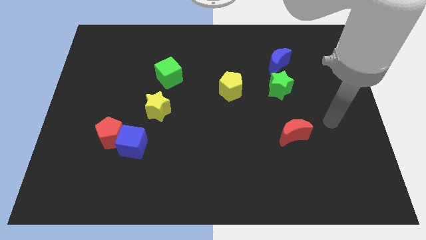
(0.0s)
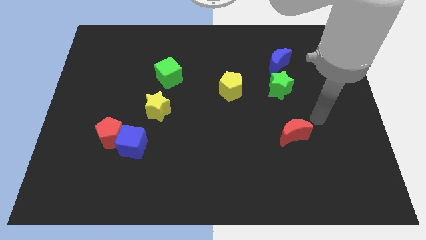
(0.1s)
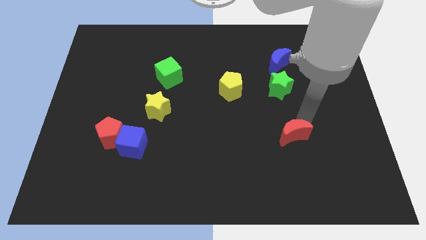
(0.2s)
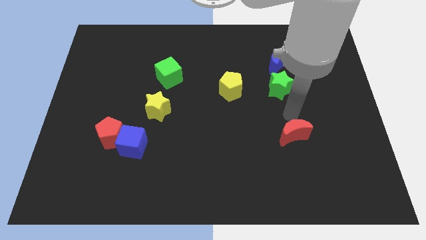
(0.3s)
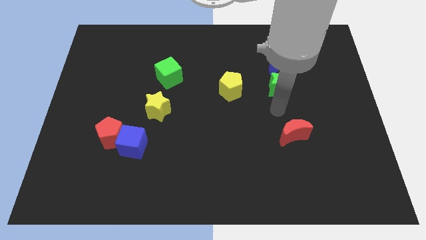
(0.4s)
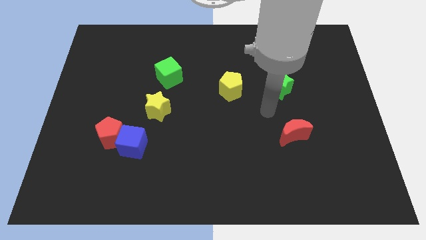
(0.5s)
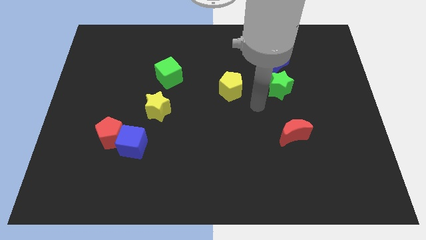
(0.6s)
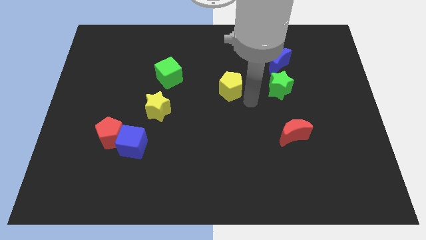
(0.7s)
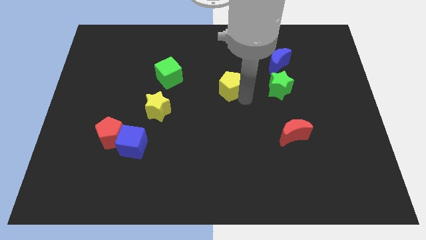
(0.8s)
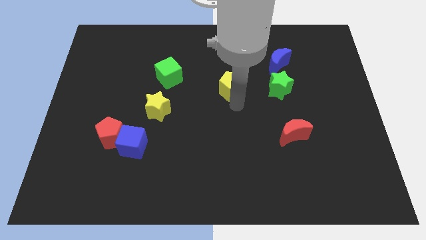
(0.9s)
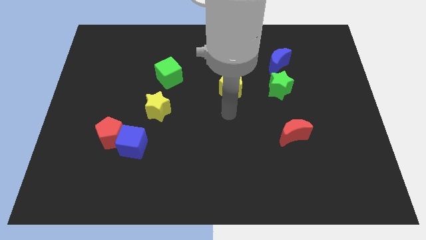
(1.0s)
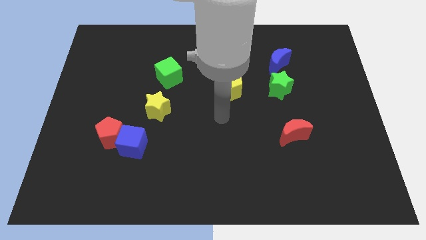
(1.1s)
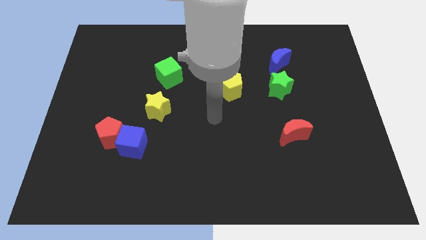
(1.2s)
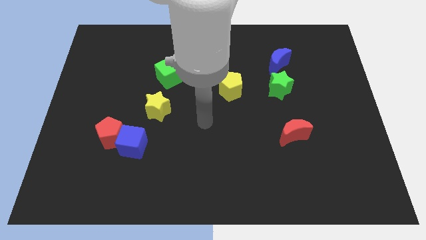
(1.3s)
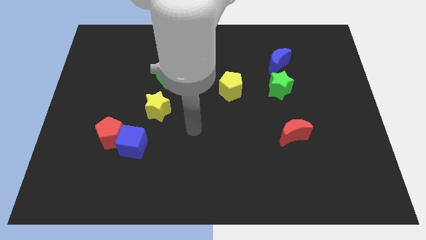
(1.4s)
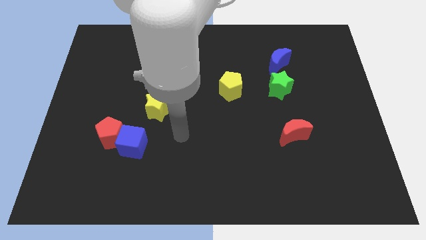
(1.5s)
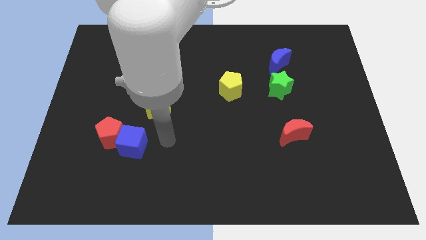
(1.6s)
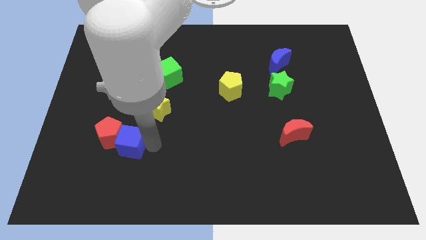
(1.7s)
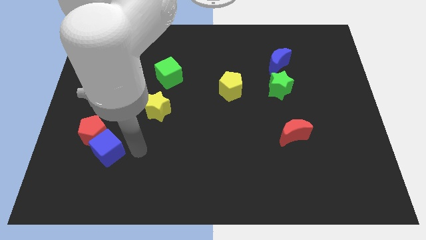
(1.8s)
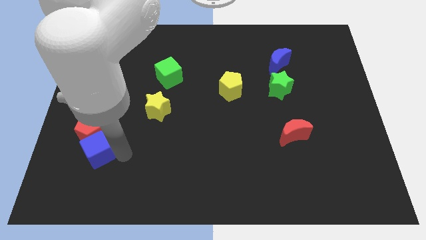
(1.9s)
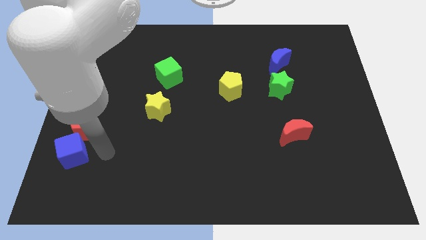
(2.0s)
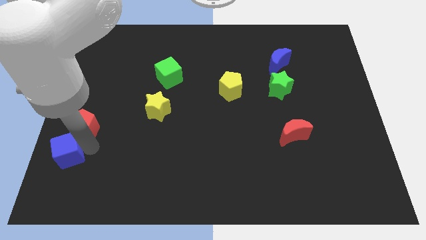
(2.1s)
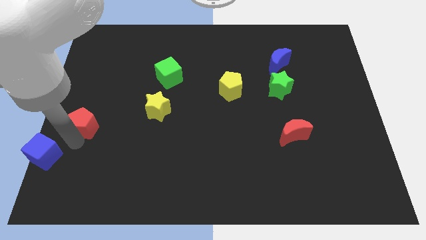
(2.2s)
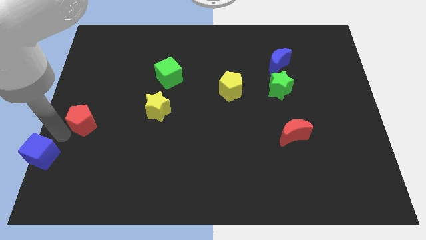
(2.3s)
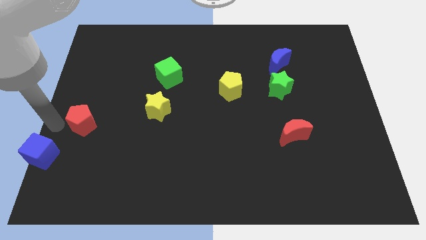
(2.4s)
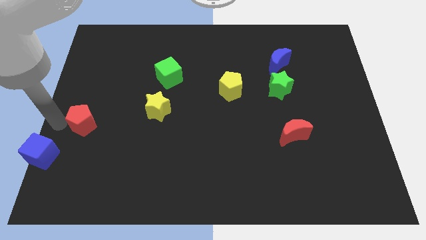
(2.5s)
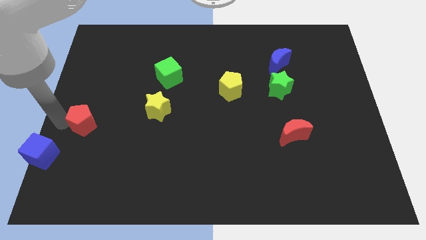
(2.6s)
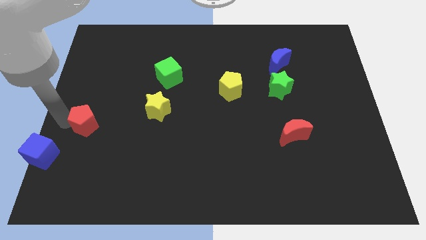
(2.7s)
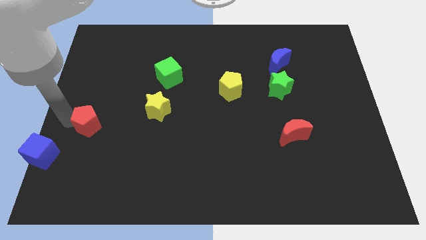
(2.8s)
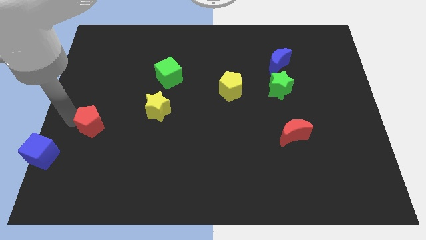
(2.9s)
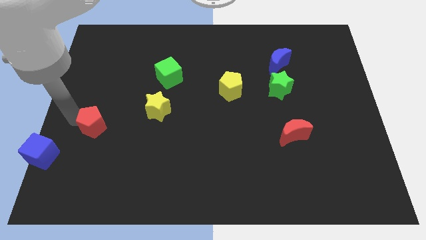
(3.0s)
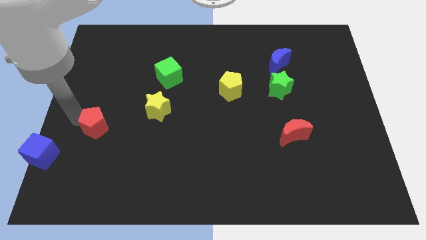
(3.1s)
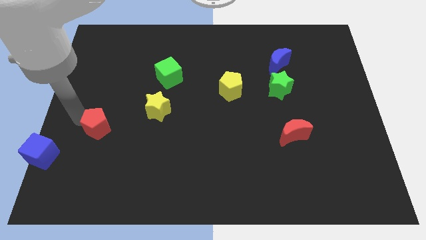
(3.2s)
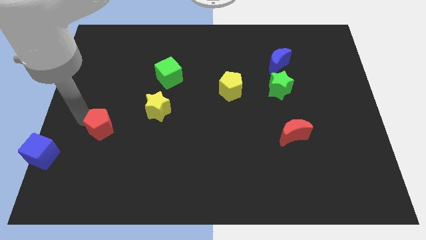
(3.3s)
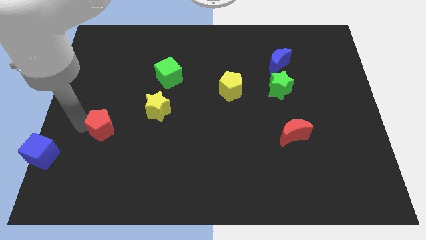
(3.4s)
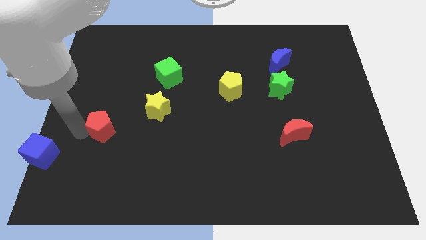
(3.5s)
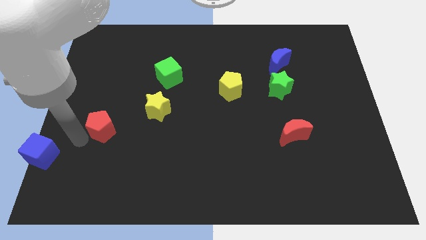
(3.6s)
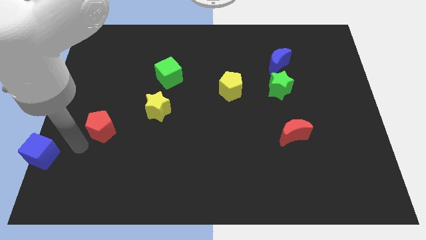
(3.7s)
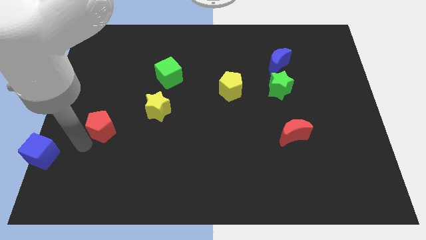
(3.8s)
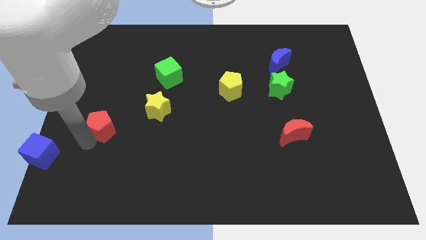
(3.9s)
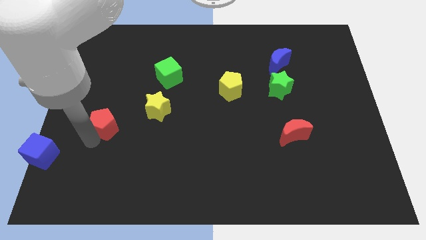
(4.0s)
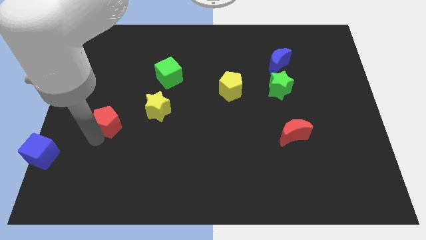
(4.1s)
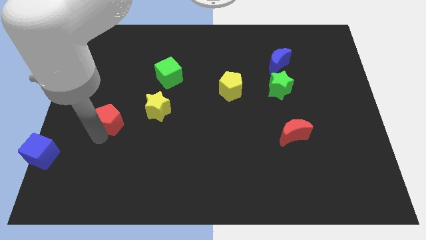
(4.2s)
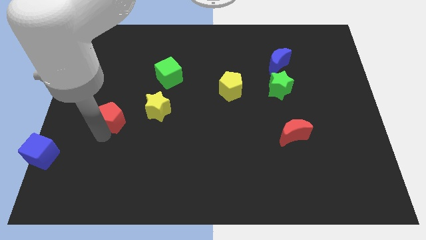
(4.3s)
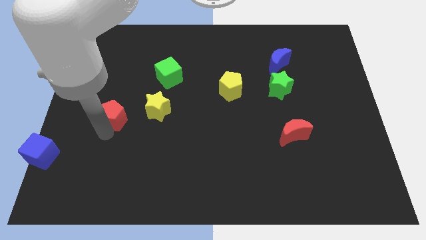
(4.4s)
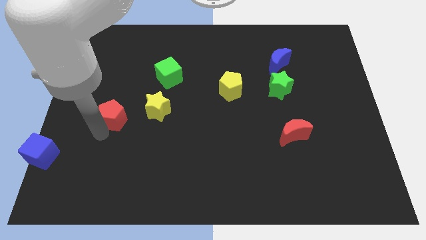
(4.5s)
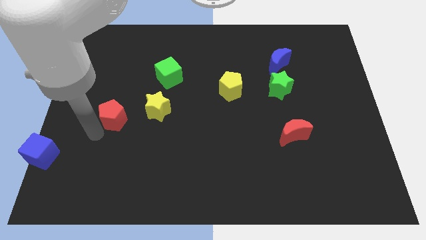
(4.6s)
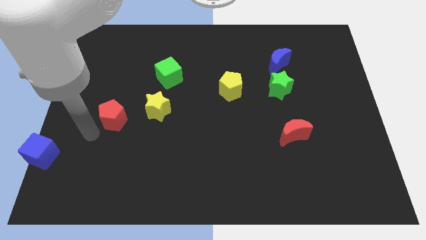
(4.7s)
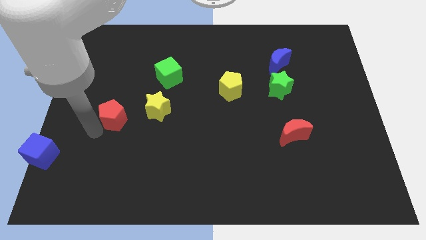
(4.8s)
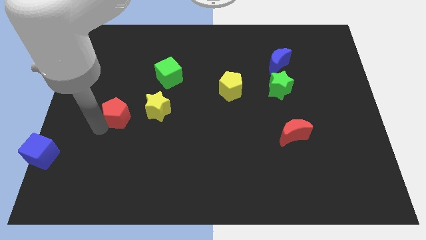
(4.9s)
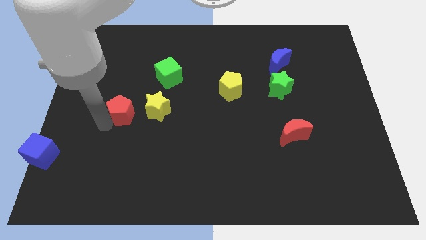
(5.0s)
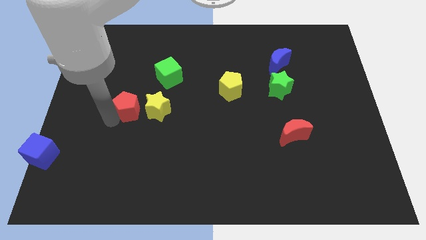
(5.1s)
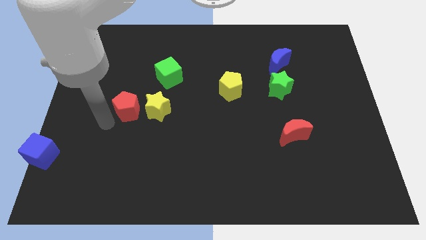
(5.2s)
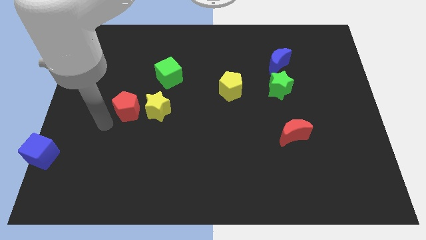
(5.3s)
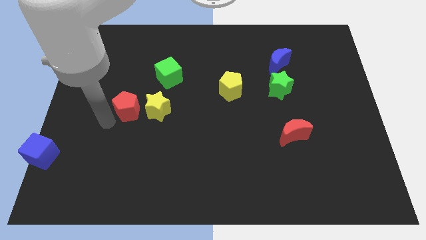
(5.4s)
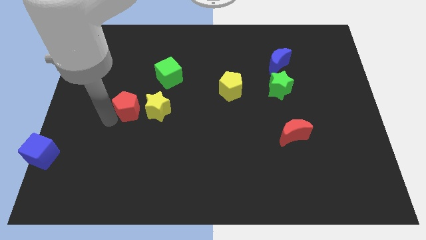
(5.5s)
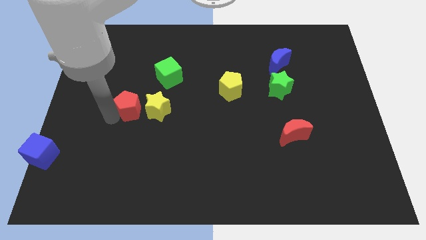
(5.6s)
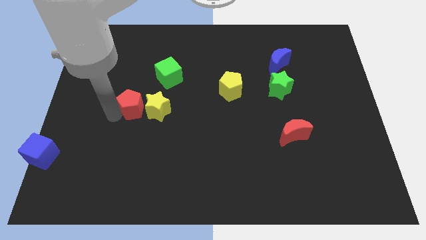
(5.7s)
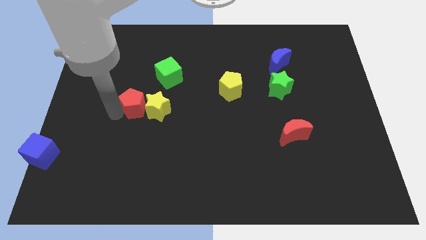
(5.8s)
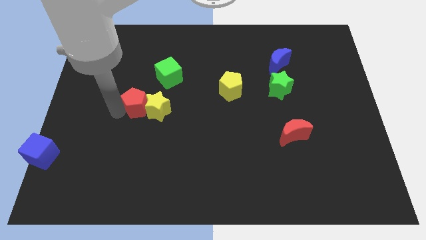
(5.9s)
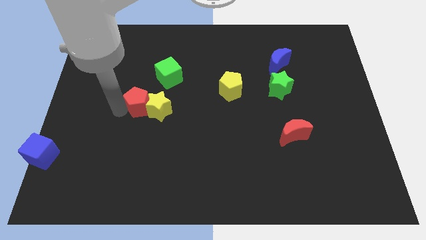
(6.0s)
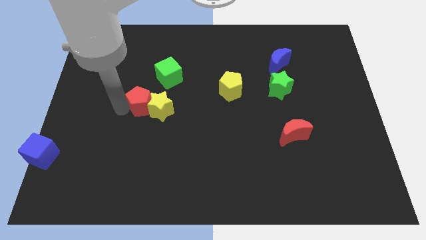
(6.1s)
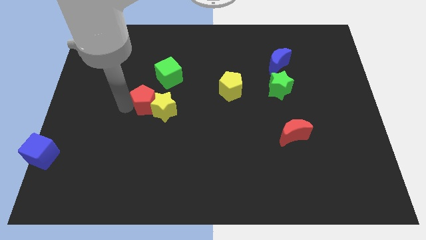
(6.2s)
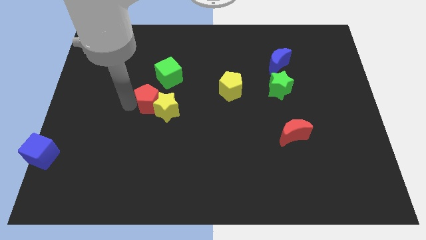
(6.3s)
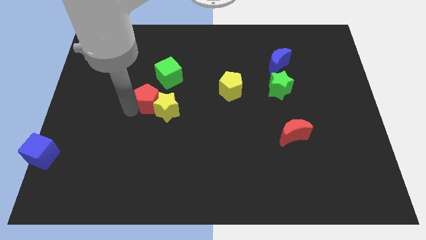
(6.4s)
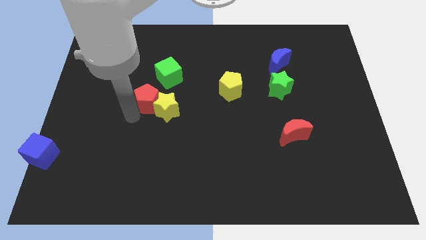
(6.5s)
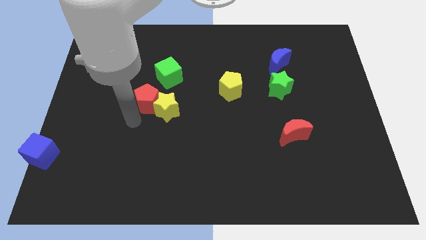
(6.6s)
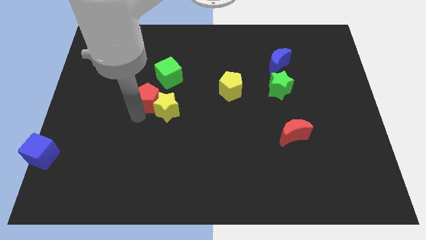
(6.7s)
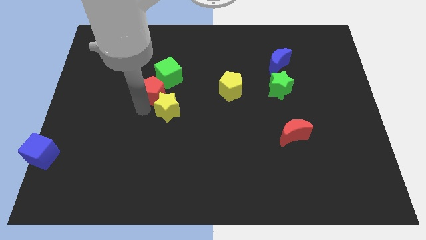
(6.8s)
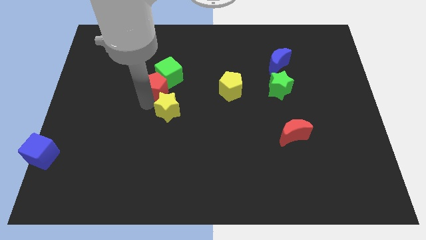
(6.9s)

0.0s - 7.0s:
put the red pentagon next to the green cube

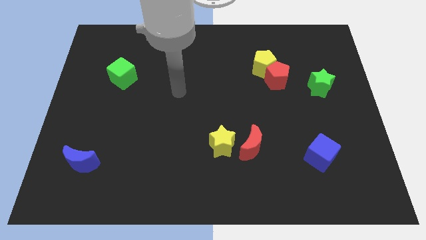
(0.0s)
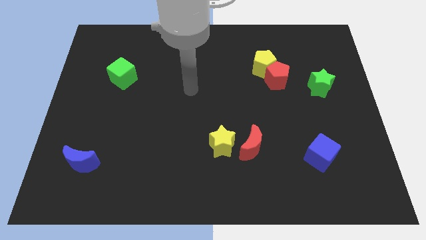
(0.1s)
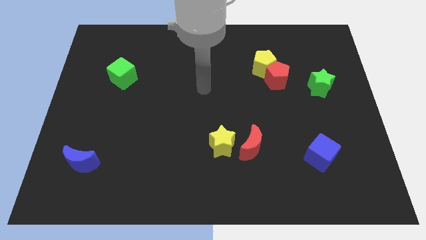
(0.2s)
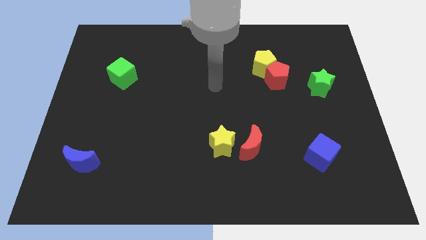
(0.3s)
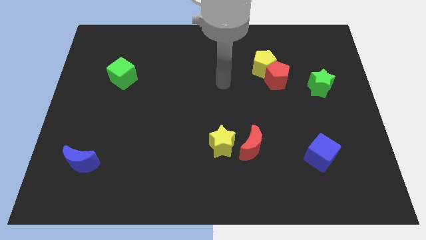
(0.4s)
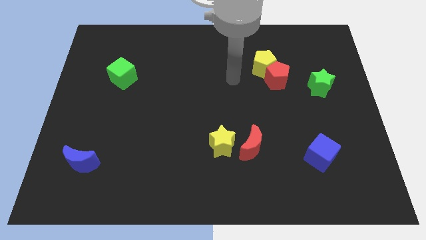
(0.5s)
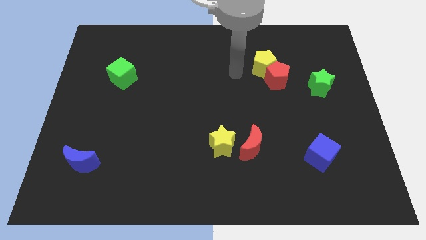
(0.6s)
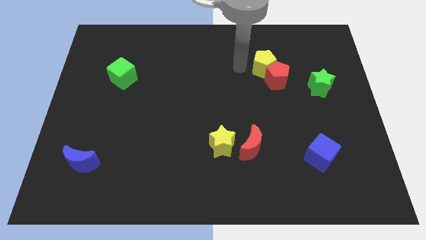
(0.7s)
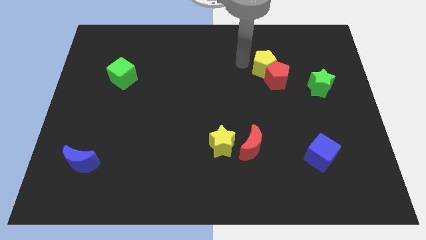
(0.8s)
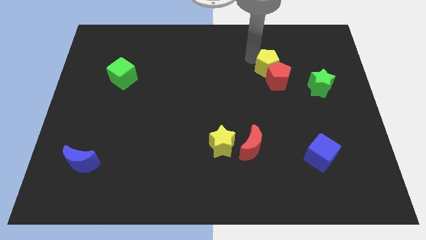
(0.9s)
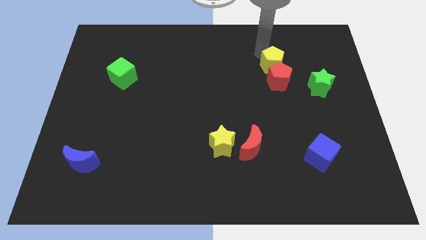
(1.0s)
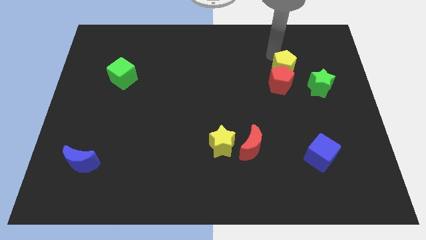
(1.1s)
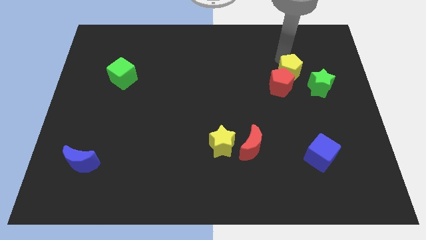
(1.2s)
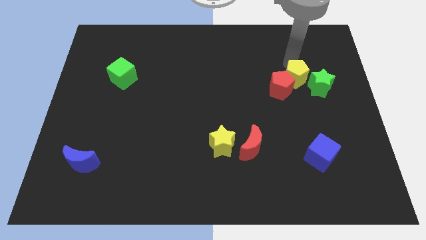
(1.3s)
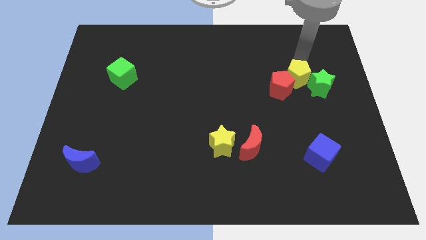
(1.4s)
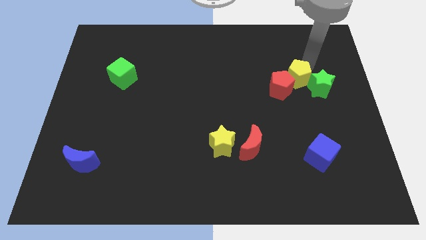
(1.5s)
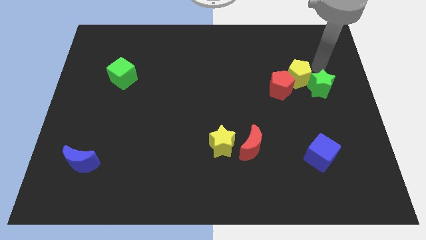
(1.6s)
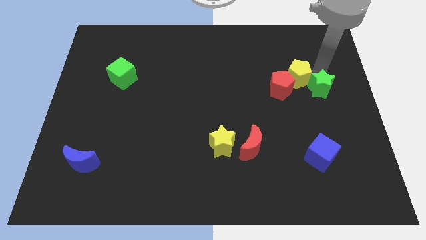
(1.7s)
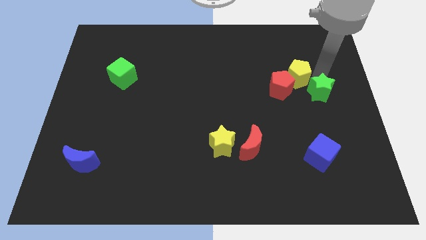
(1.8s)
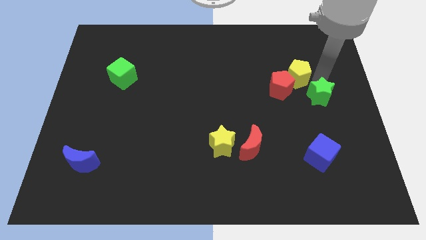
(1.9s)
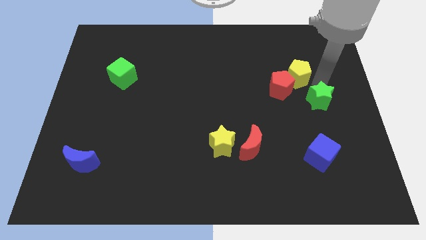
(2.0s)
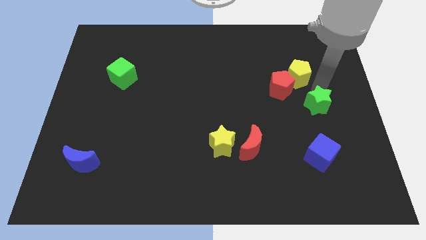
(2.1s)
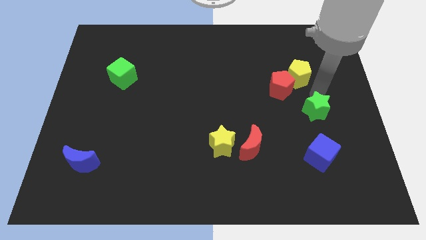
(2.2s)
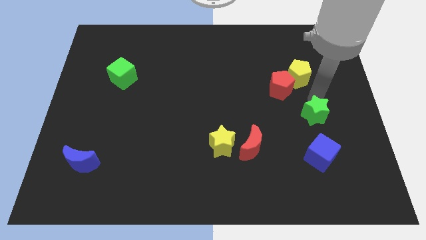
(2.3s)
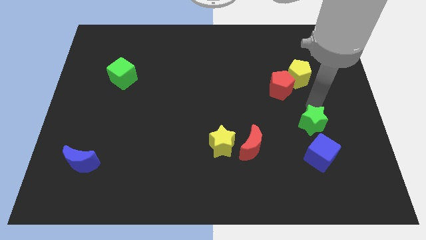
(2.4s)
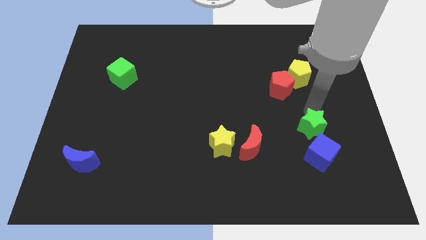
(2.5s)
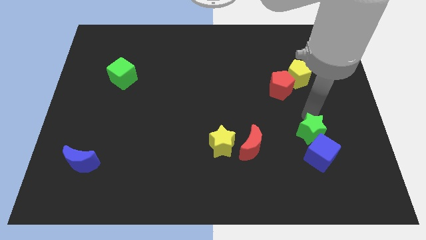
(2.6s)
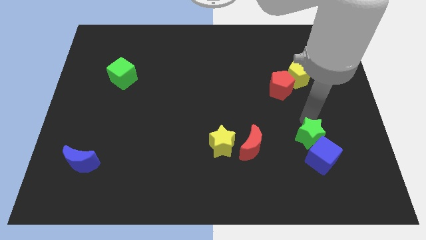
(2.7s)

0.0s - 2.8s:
slide the green star to the blue cube
